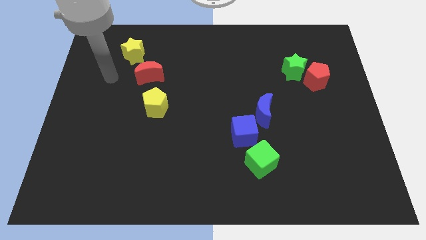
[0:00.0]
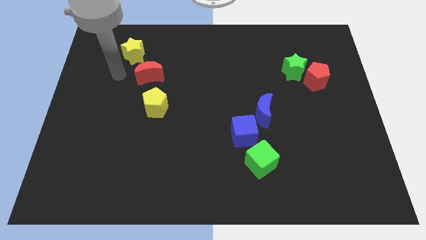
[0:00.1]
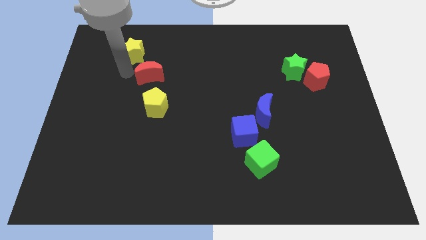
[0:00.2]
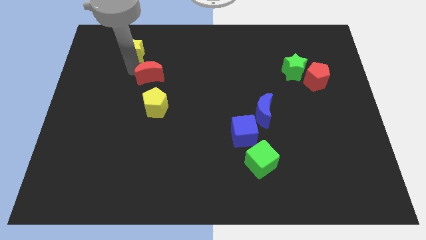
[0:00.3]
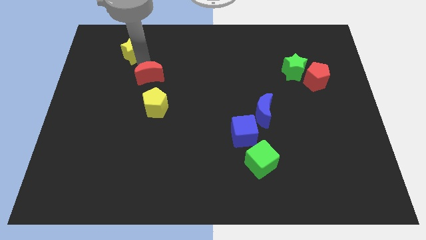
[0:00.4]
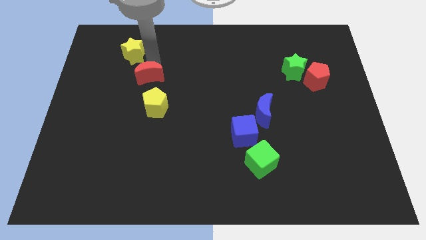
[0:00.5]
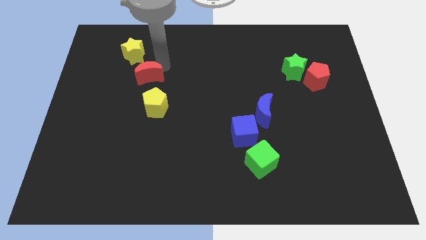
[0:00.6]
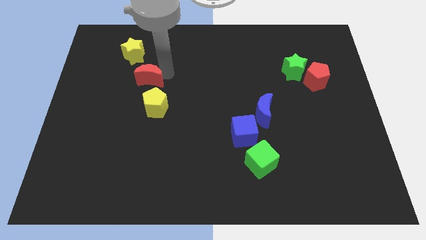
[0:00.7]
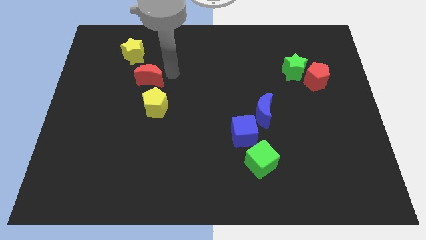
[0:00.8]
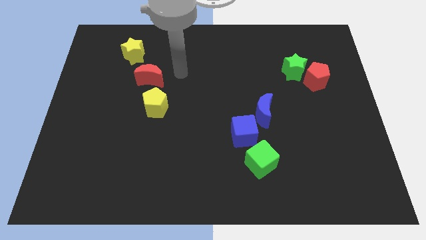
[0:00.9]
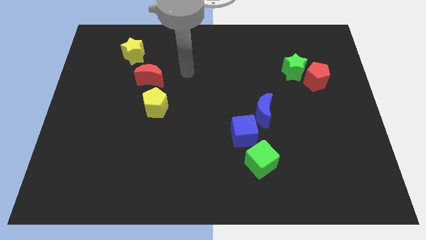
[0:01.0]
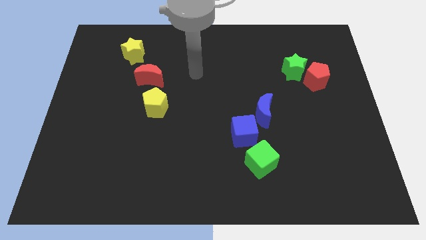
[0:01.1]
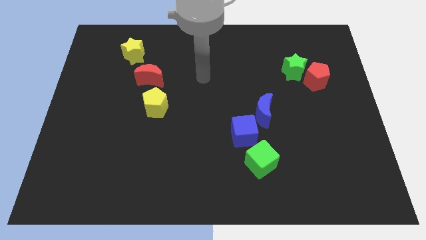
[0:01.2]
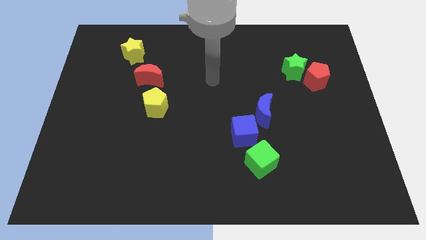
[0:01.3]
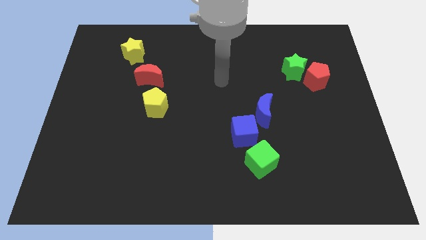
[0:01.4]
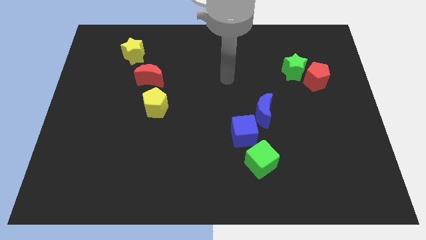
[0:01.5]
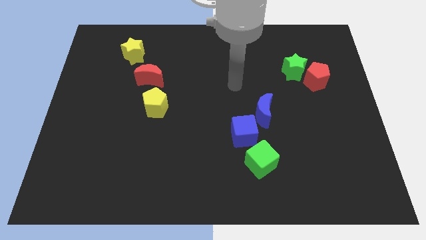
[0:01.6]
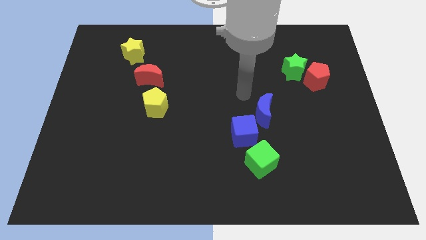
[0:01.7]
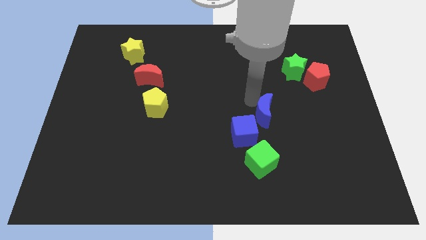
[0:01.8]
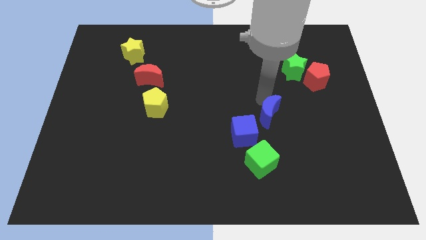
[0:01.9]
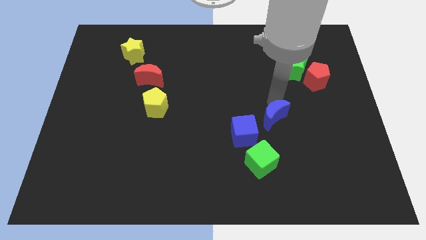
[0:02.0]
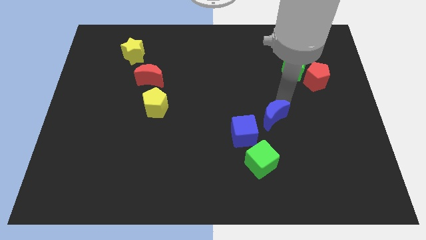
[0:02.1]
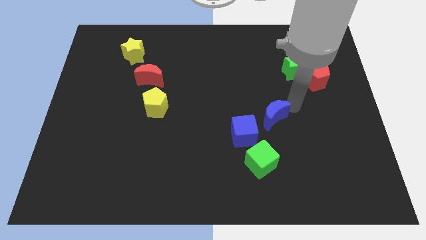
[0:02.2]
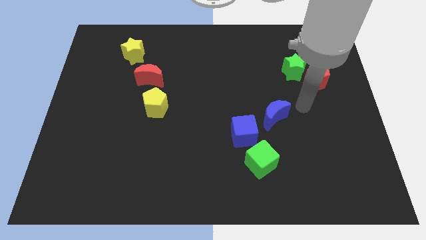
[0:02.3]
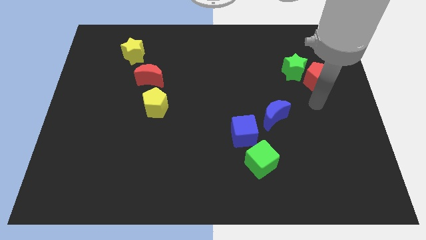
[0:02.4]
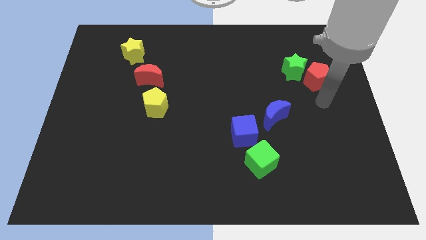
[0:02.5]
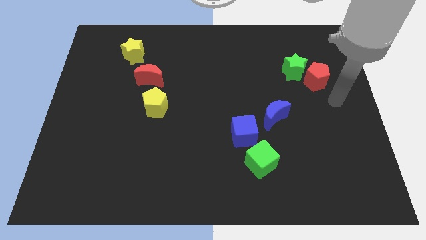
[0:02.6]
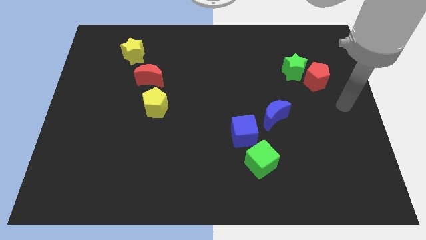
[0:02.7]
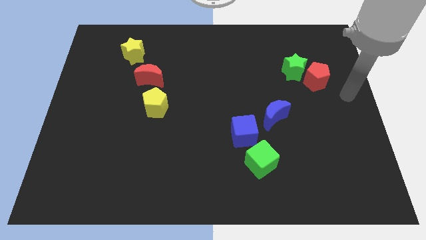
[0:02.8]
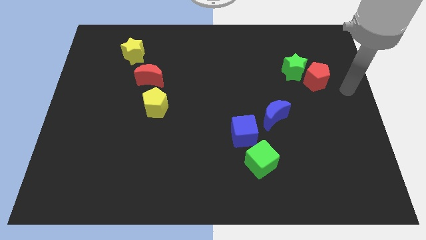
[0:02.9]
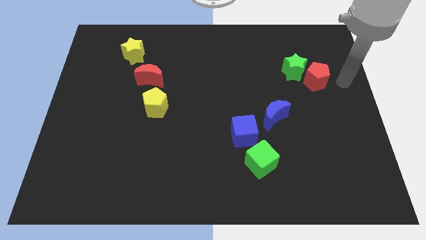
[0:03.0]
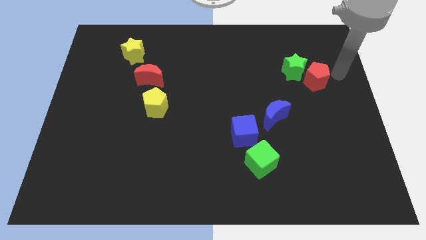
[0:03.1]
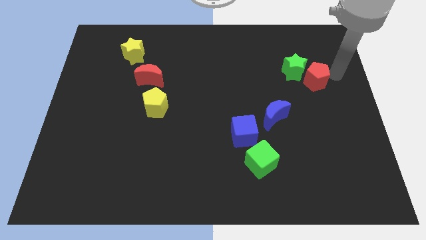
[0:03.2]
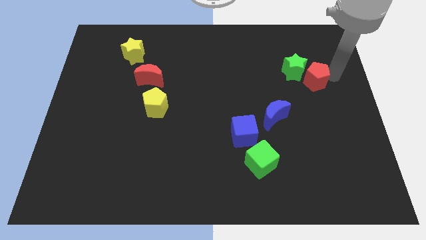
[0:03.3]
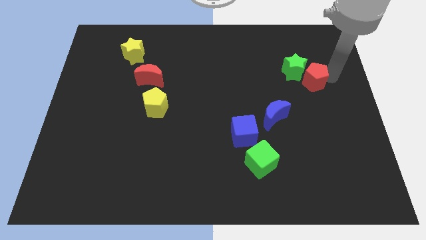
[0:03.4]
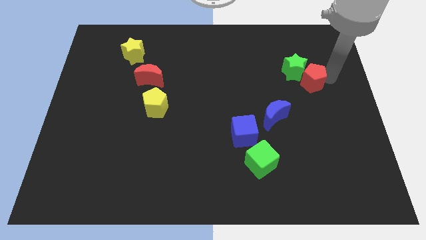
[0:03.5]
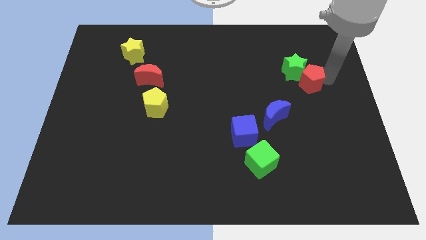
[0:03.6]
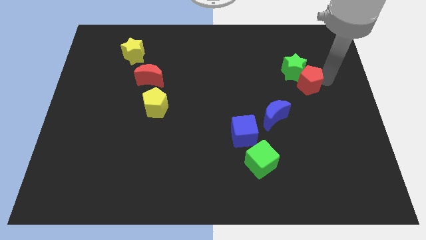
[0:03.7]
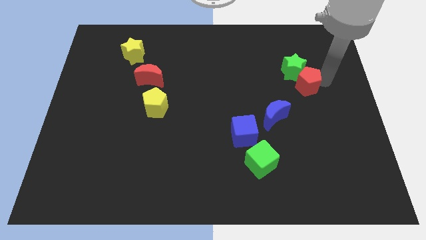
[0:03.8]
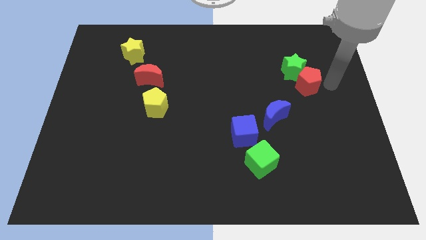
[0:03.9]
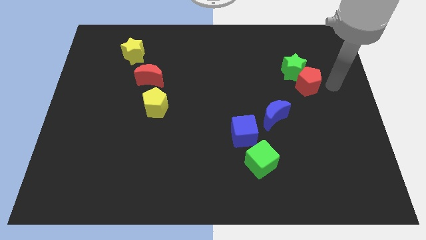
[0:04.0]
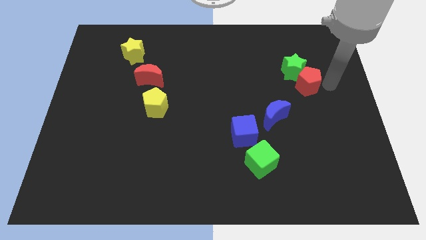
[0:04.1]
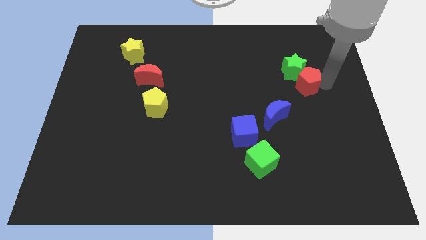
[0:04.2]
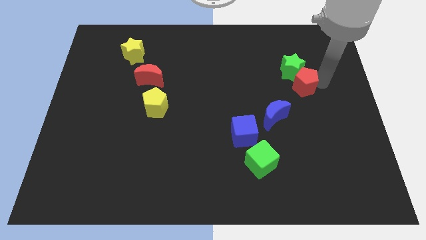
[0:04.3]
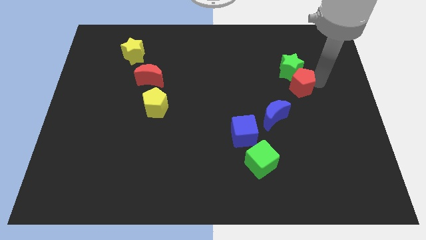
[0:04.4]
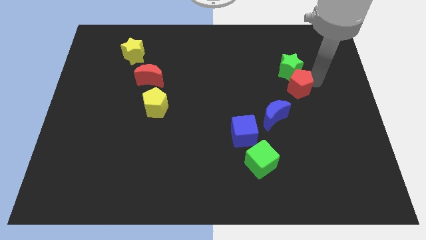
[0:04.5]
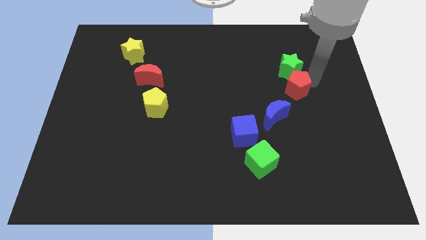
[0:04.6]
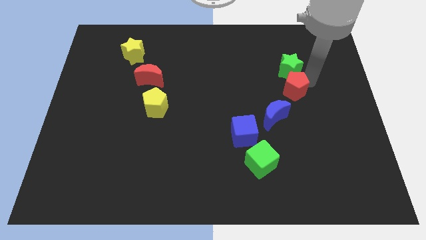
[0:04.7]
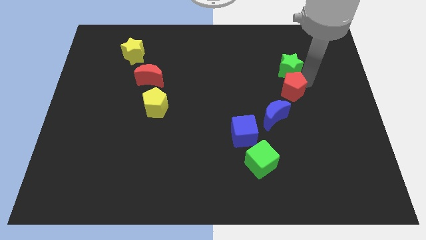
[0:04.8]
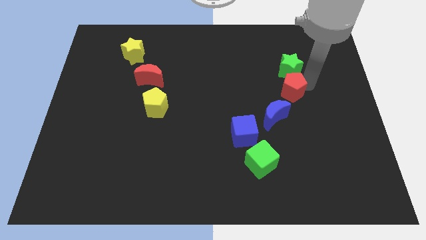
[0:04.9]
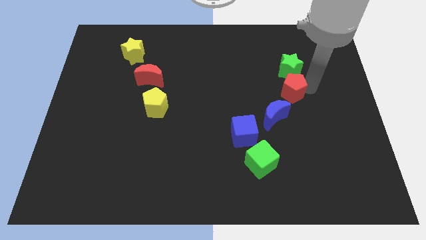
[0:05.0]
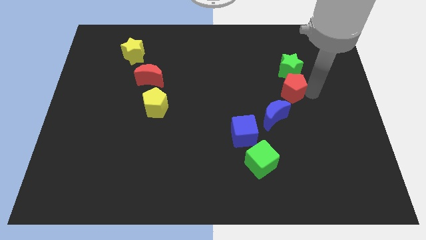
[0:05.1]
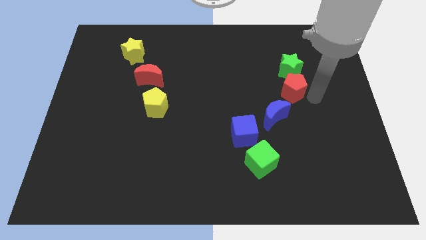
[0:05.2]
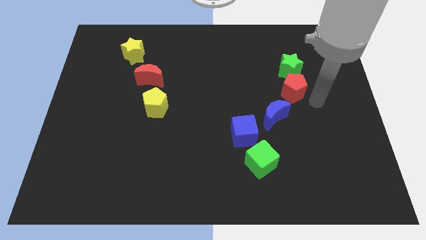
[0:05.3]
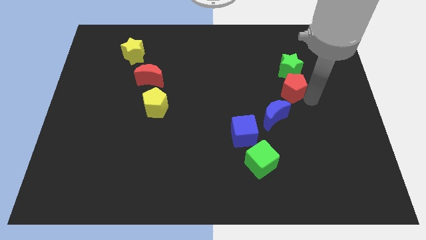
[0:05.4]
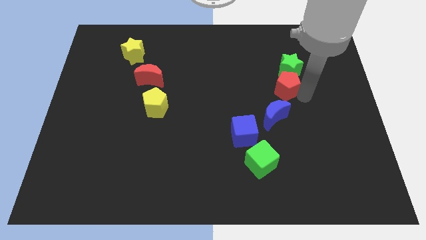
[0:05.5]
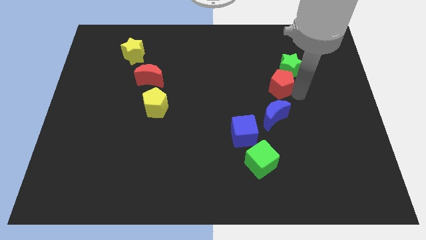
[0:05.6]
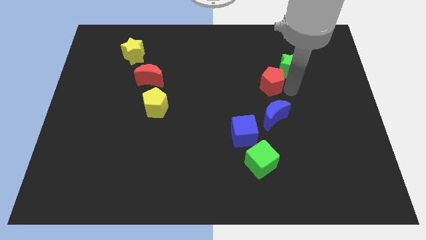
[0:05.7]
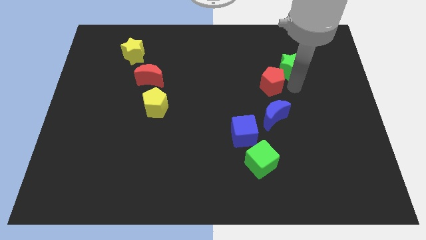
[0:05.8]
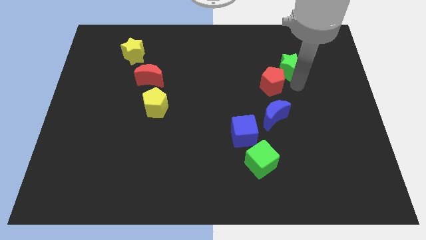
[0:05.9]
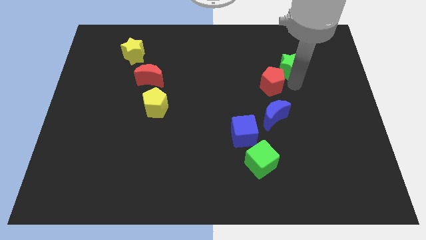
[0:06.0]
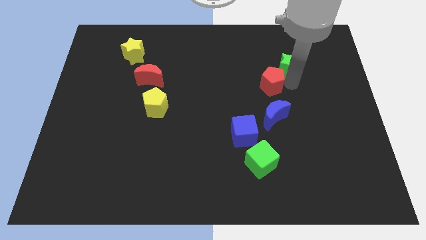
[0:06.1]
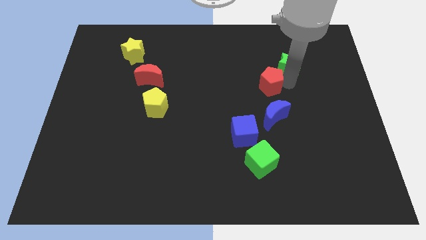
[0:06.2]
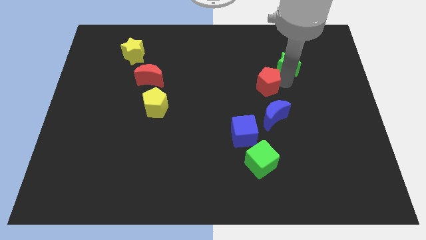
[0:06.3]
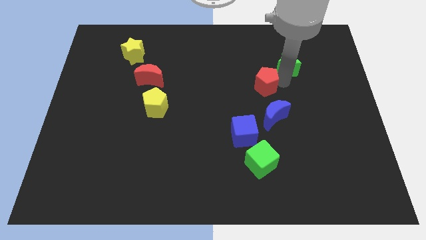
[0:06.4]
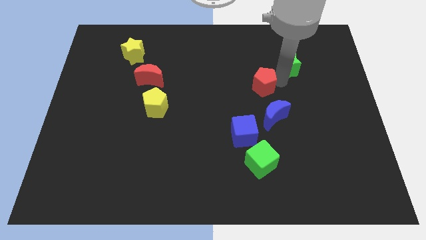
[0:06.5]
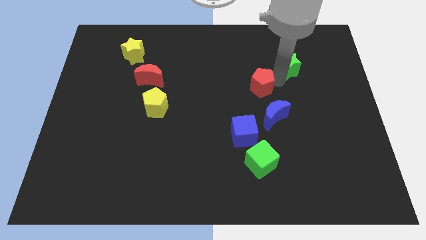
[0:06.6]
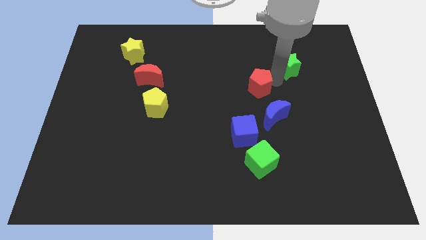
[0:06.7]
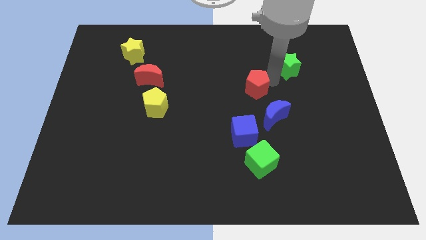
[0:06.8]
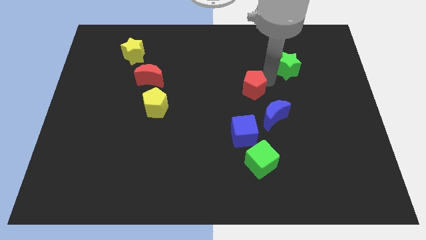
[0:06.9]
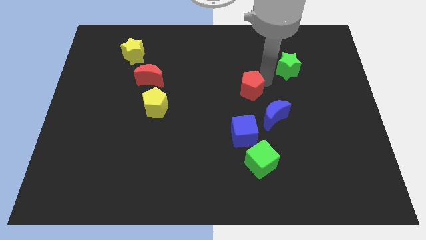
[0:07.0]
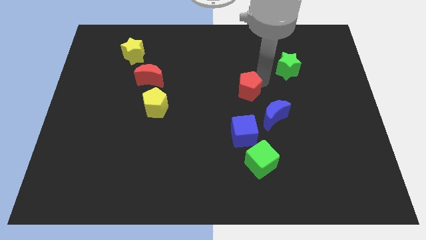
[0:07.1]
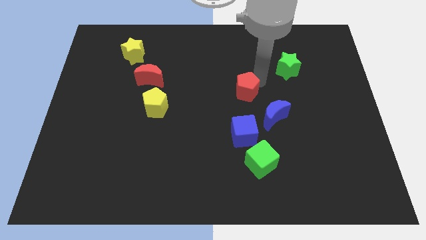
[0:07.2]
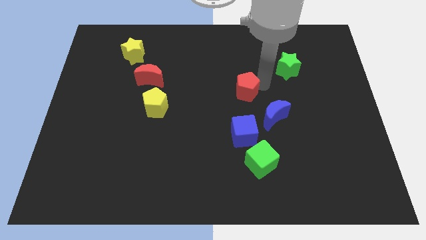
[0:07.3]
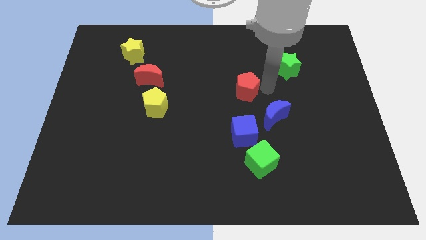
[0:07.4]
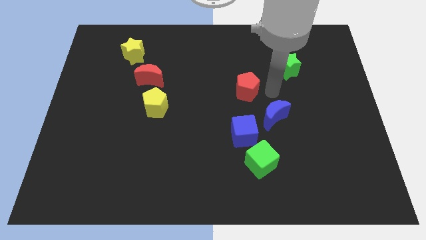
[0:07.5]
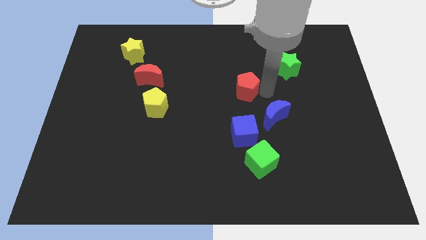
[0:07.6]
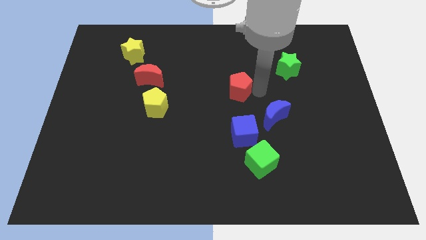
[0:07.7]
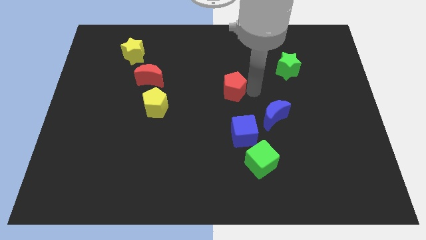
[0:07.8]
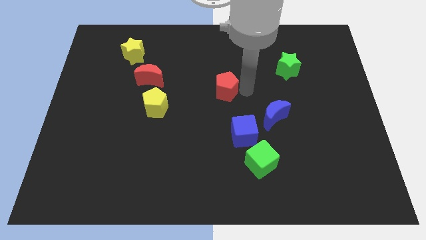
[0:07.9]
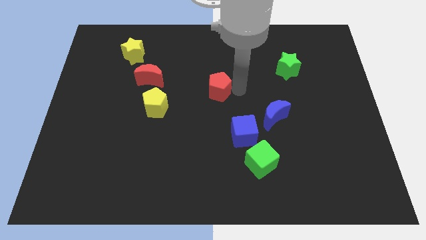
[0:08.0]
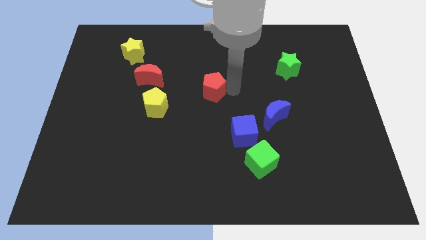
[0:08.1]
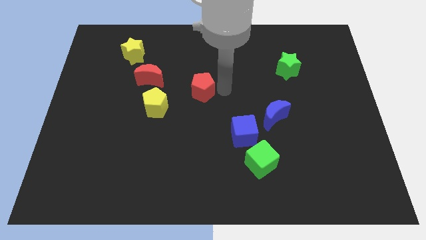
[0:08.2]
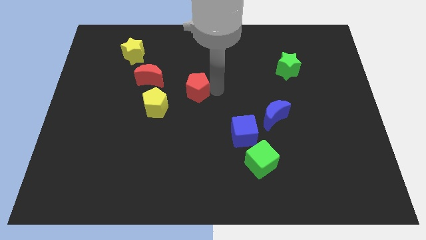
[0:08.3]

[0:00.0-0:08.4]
push the red pentagon to the top right side of the yellow pentagon
